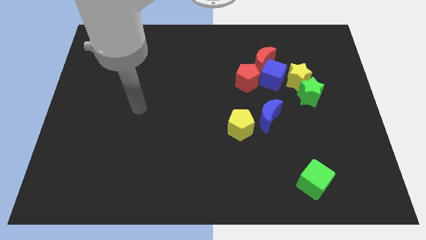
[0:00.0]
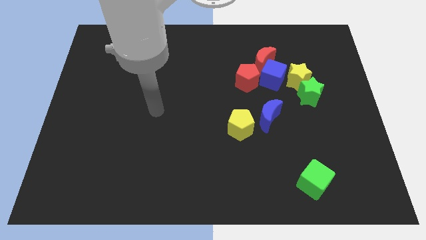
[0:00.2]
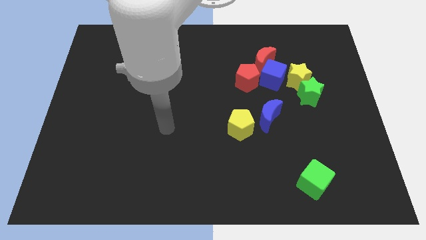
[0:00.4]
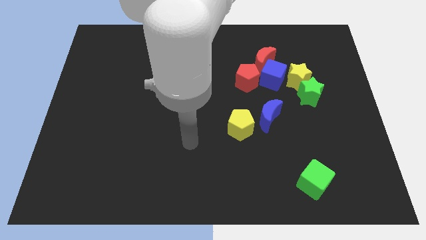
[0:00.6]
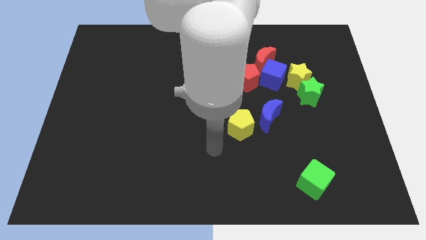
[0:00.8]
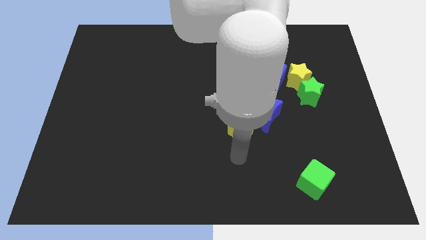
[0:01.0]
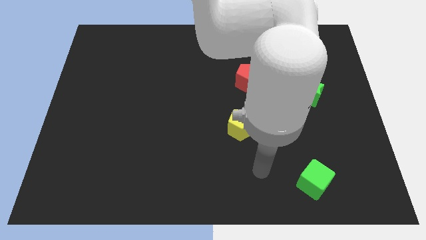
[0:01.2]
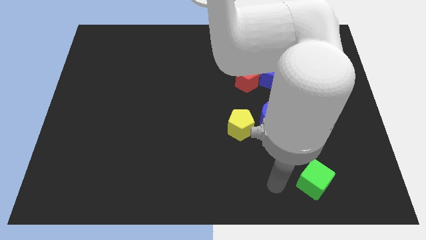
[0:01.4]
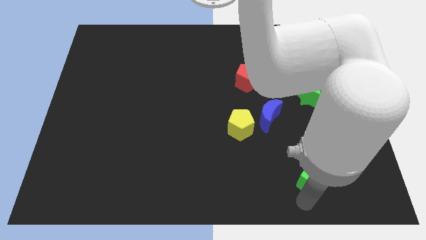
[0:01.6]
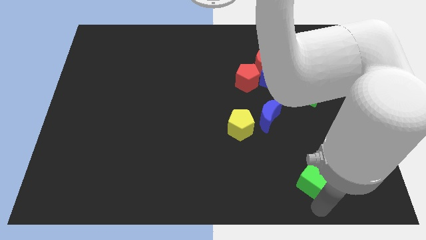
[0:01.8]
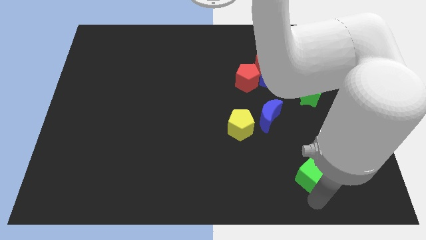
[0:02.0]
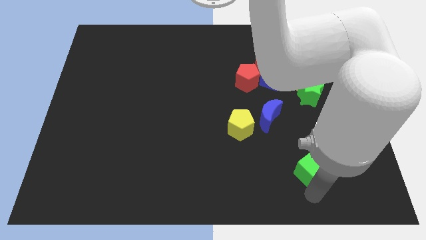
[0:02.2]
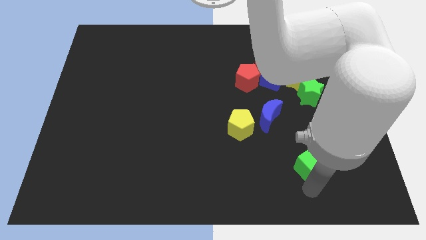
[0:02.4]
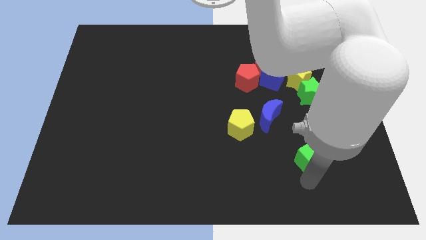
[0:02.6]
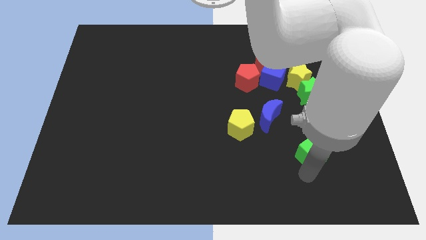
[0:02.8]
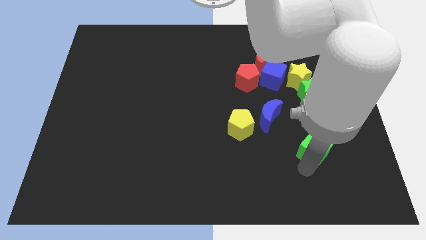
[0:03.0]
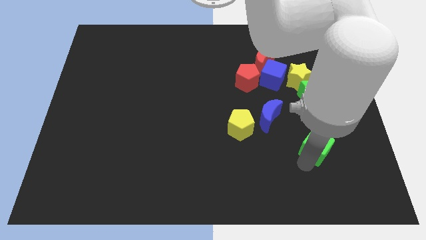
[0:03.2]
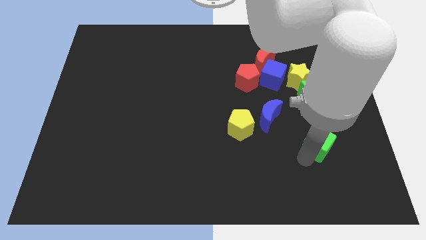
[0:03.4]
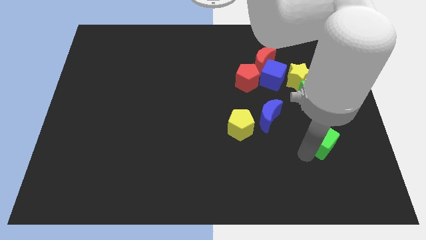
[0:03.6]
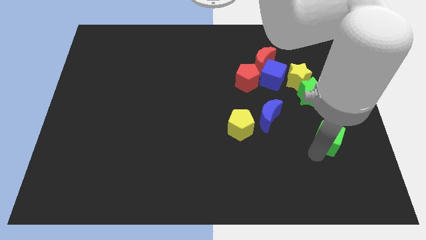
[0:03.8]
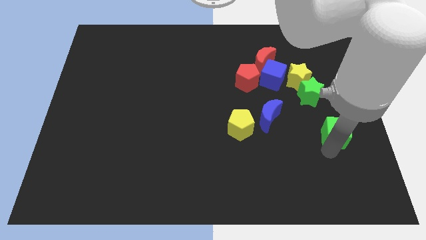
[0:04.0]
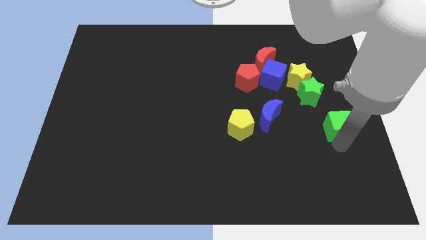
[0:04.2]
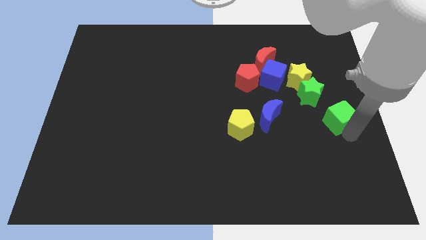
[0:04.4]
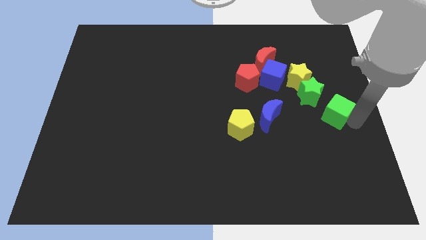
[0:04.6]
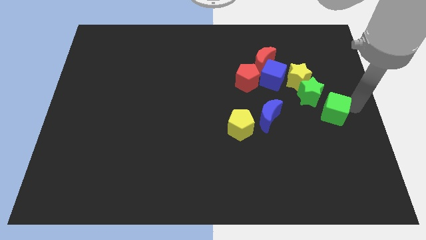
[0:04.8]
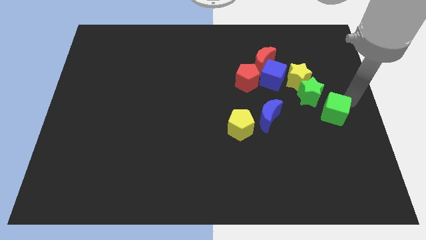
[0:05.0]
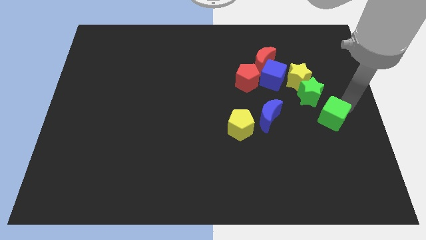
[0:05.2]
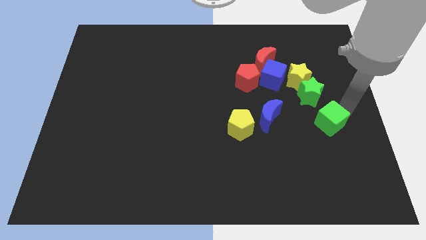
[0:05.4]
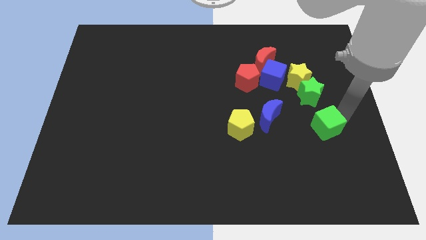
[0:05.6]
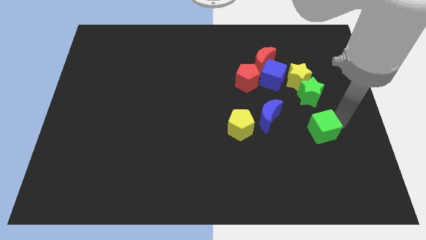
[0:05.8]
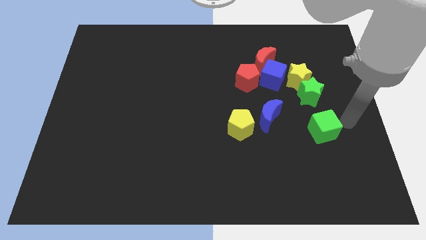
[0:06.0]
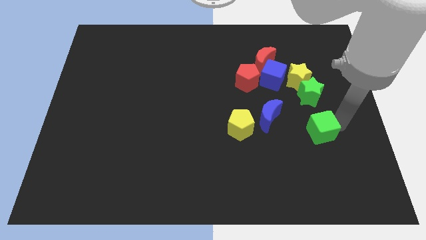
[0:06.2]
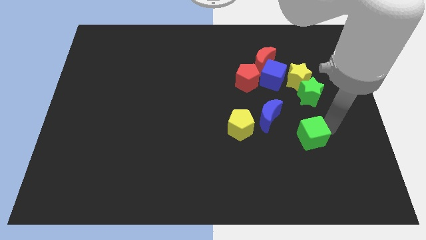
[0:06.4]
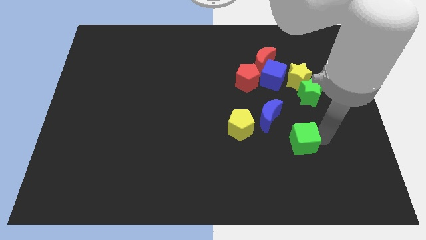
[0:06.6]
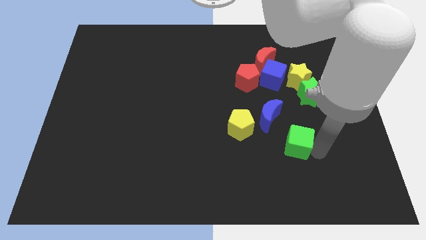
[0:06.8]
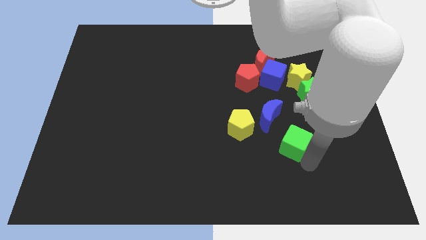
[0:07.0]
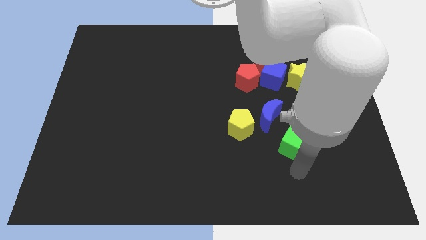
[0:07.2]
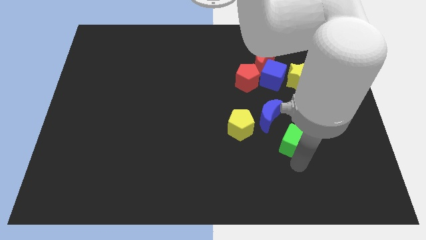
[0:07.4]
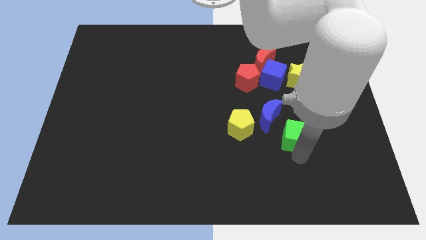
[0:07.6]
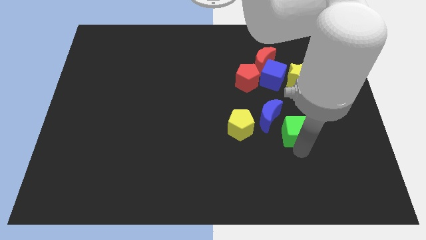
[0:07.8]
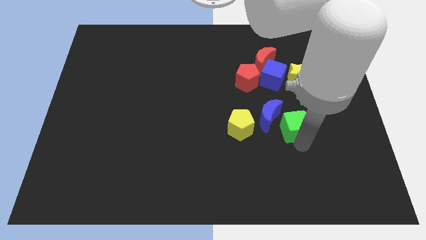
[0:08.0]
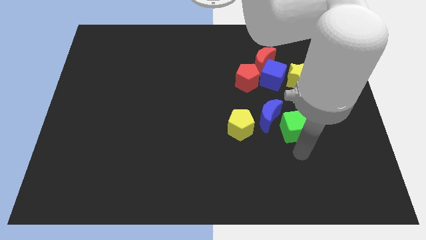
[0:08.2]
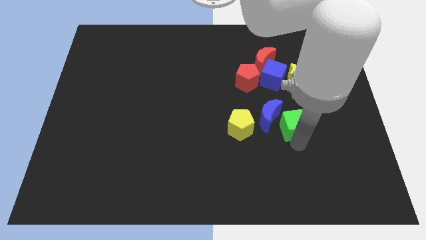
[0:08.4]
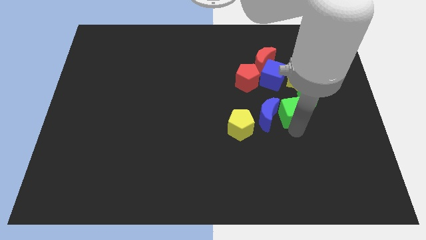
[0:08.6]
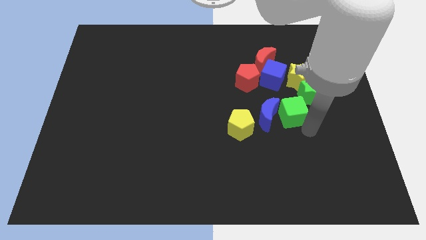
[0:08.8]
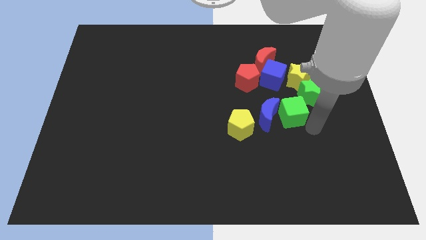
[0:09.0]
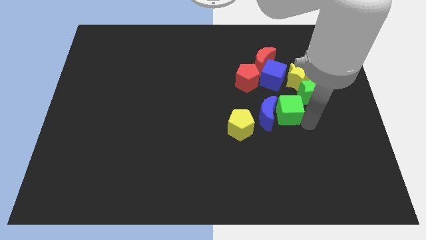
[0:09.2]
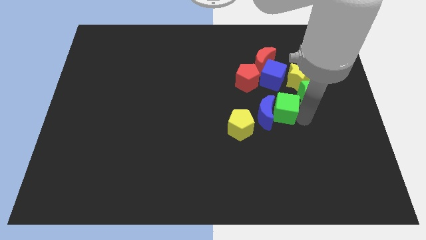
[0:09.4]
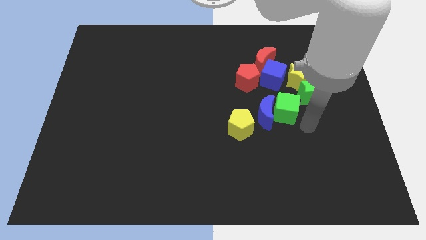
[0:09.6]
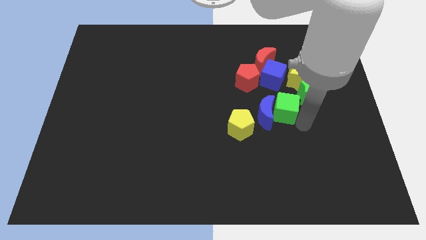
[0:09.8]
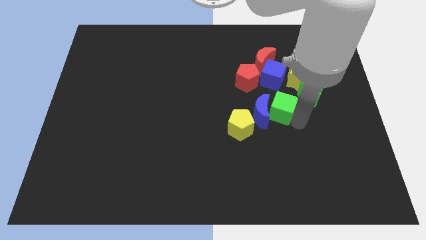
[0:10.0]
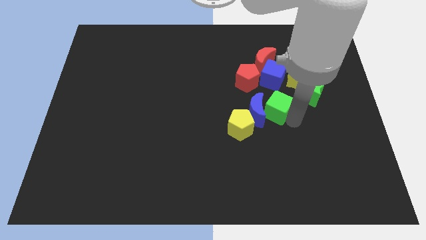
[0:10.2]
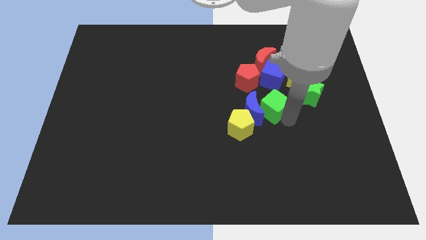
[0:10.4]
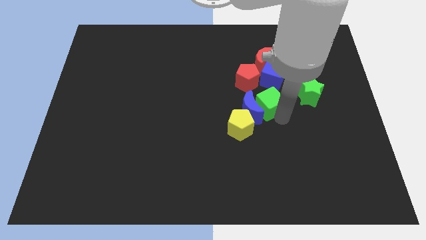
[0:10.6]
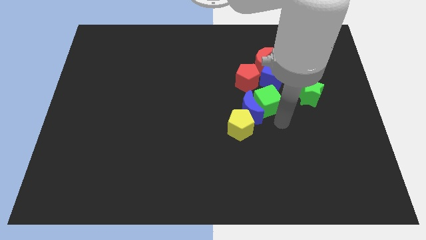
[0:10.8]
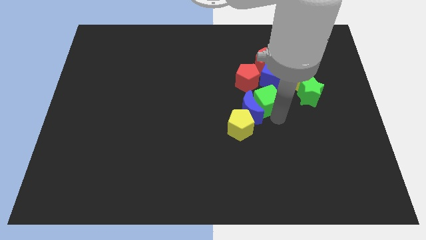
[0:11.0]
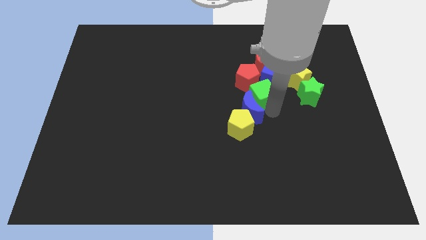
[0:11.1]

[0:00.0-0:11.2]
push the green cube close to the red pentagon

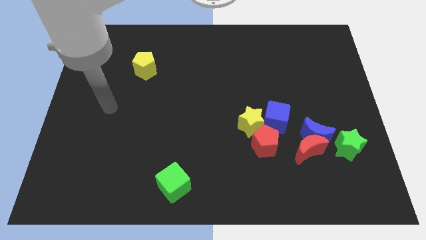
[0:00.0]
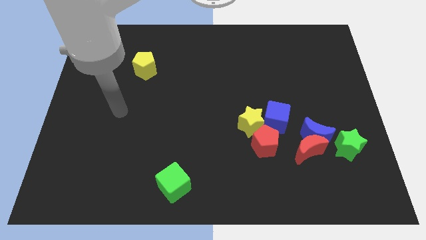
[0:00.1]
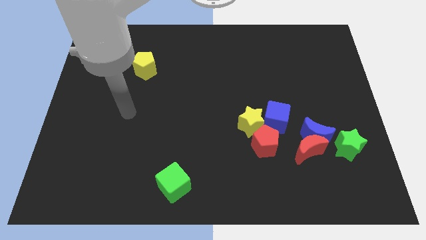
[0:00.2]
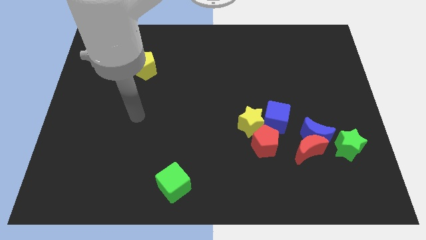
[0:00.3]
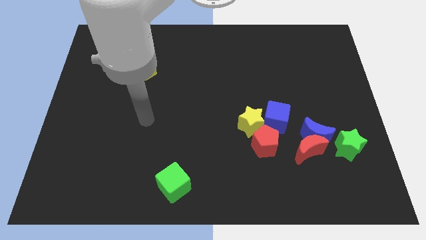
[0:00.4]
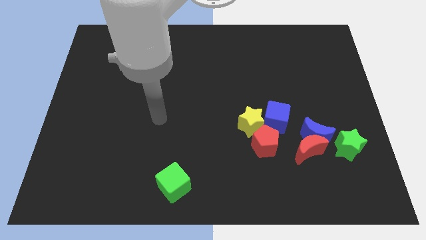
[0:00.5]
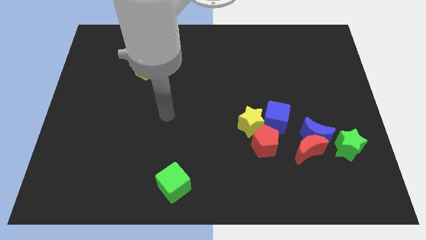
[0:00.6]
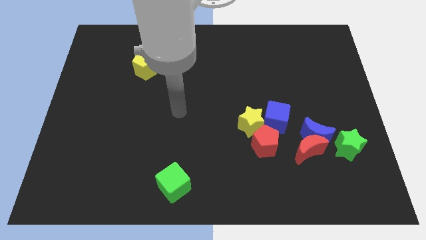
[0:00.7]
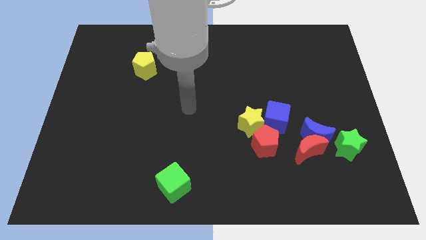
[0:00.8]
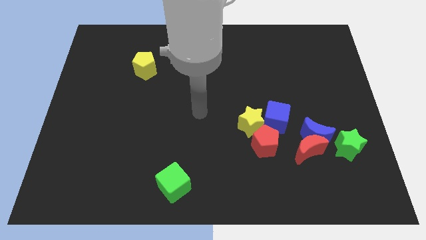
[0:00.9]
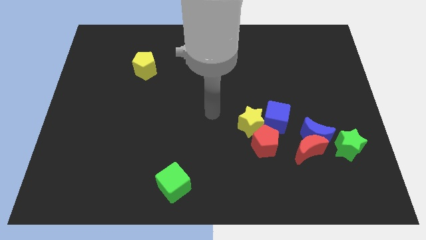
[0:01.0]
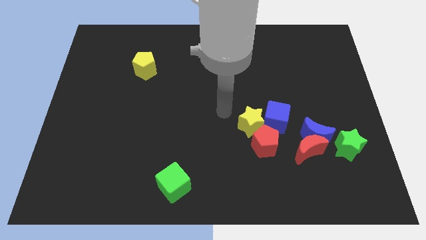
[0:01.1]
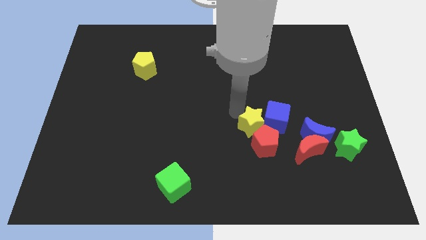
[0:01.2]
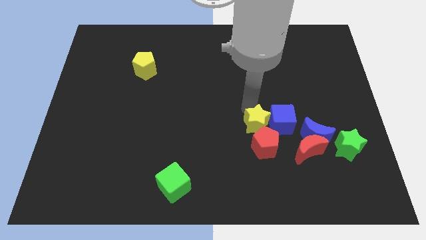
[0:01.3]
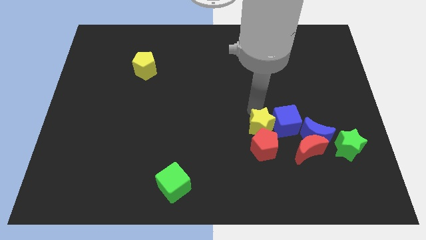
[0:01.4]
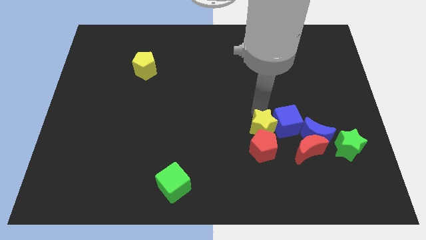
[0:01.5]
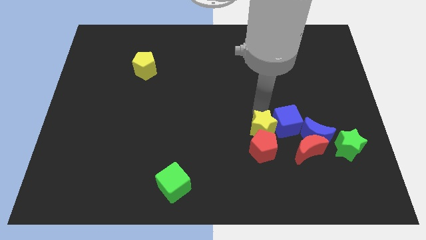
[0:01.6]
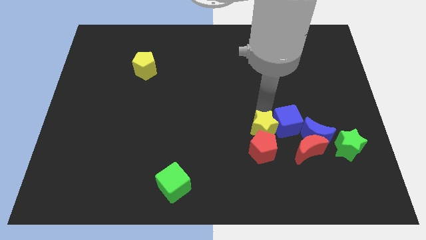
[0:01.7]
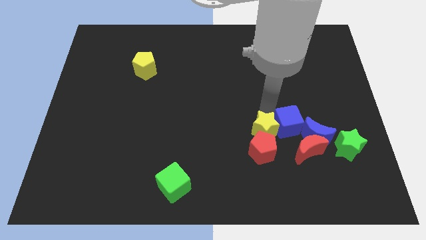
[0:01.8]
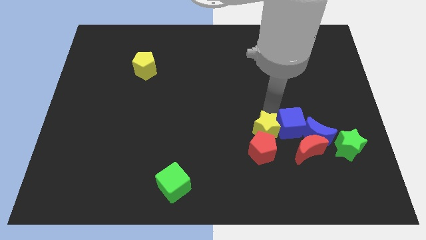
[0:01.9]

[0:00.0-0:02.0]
push the blue cube close to the blue moon

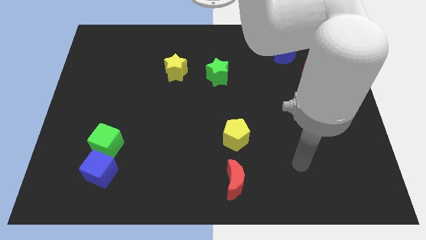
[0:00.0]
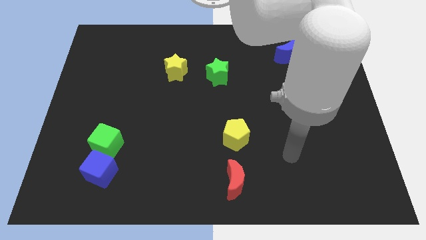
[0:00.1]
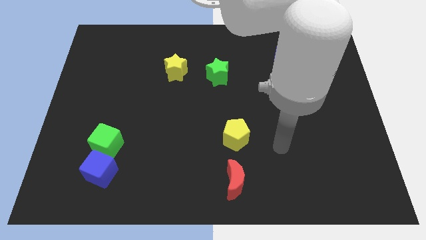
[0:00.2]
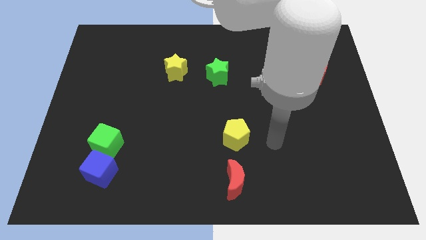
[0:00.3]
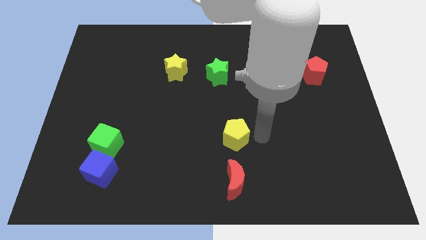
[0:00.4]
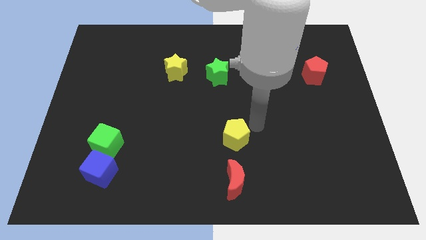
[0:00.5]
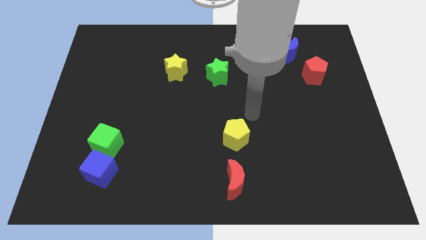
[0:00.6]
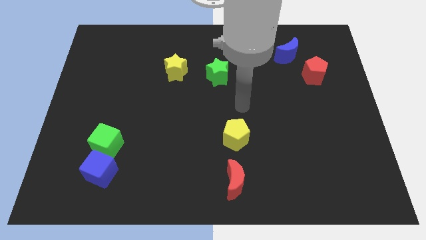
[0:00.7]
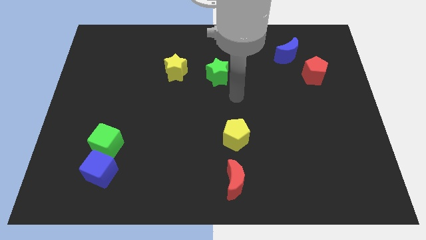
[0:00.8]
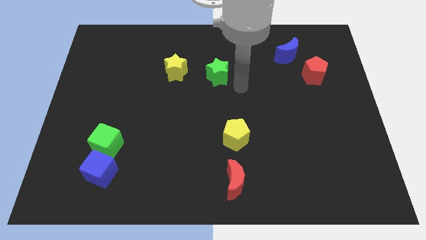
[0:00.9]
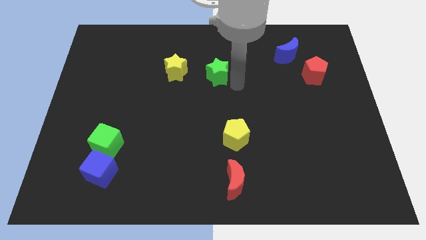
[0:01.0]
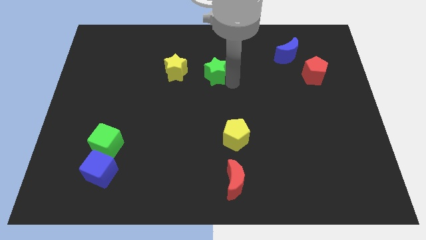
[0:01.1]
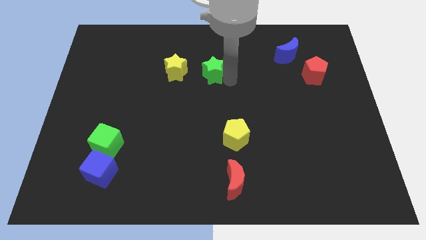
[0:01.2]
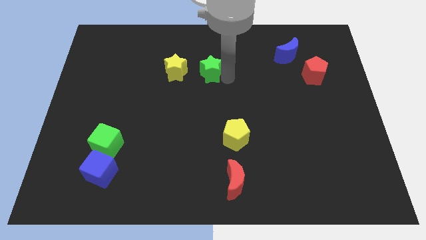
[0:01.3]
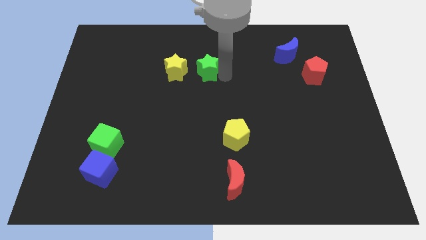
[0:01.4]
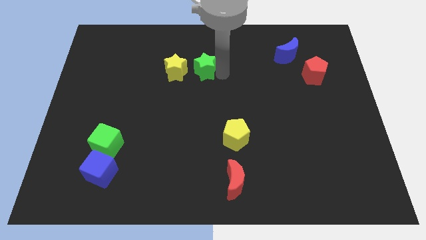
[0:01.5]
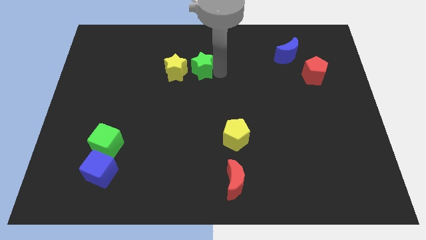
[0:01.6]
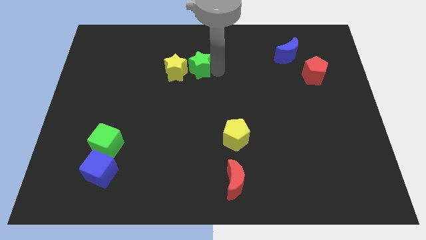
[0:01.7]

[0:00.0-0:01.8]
put the green star towards the yellow star
